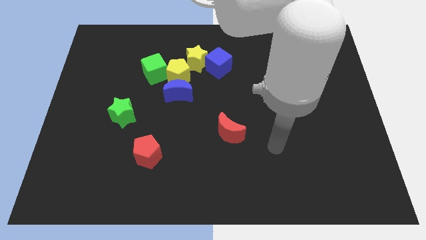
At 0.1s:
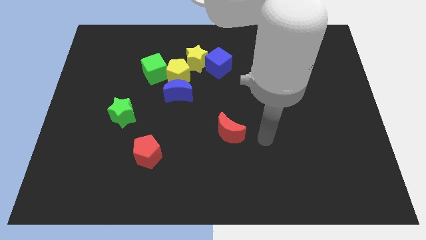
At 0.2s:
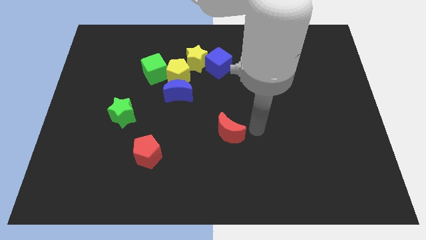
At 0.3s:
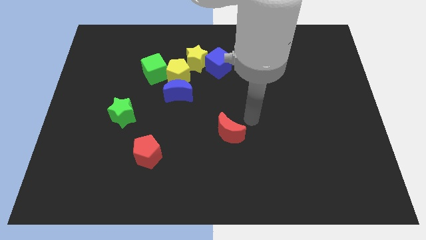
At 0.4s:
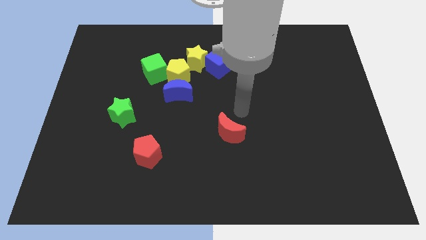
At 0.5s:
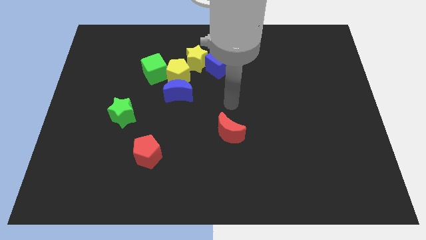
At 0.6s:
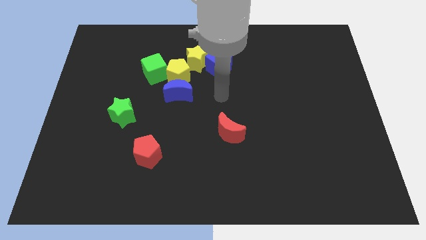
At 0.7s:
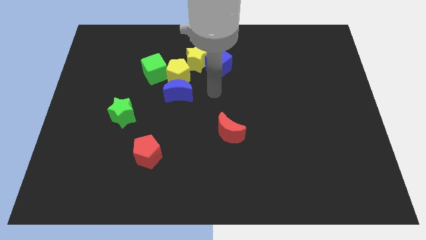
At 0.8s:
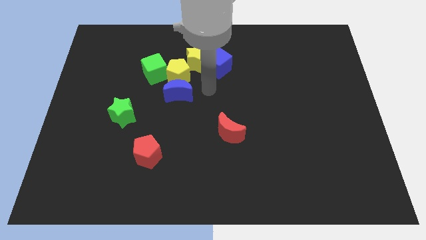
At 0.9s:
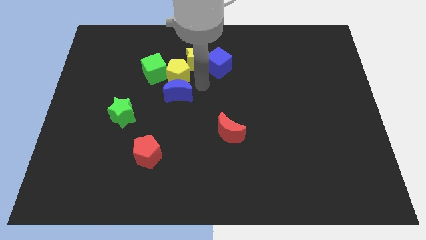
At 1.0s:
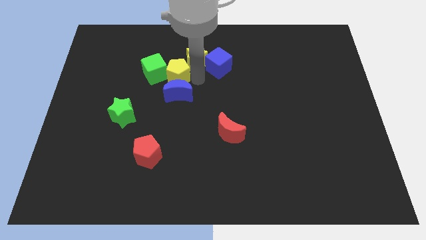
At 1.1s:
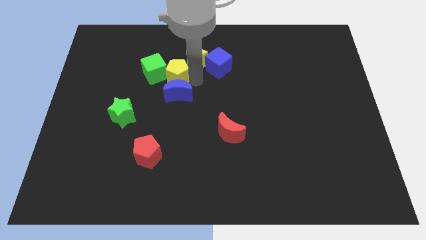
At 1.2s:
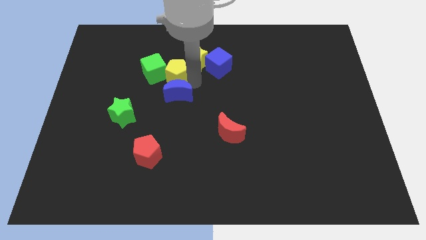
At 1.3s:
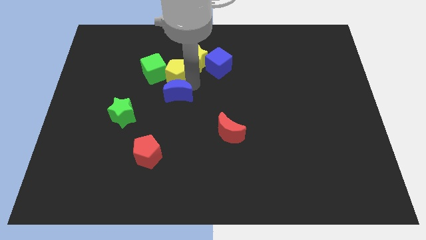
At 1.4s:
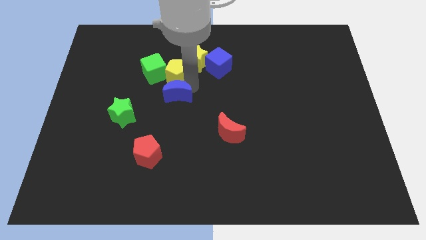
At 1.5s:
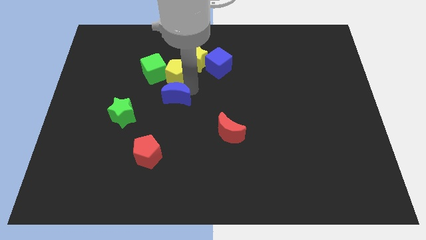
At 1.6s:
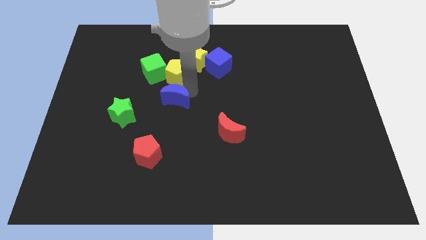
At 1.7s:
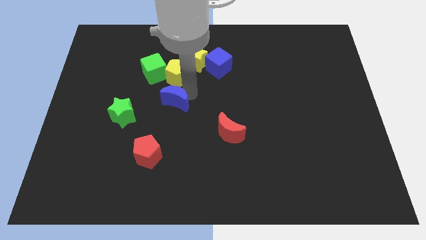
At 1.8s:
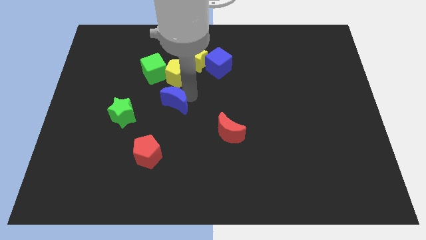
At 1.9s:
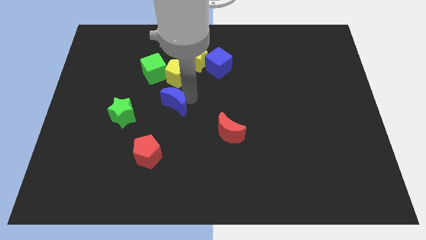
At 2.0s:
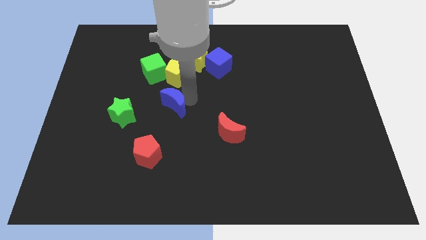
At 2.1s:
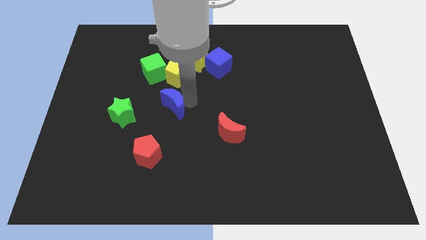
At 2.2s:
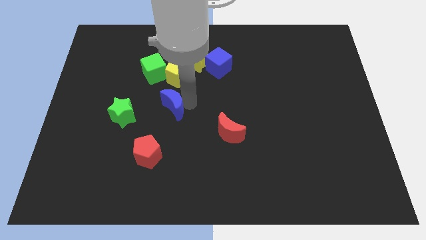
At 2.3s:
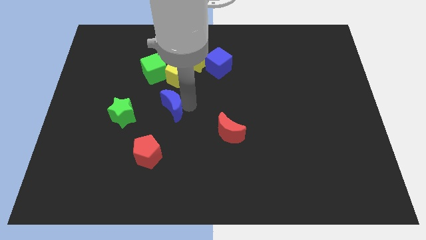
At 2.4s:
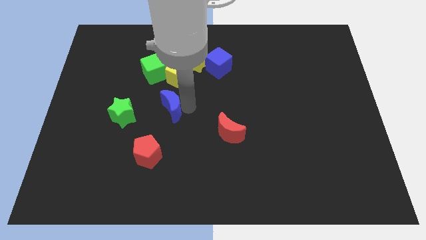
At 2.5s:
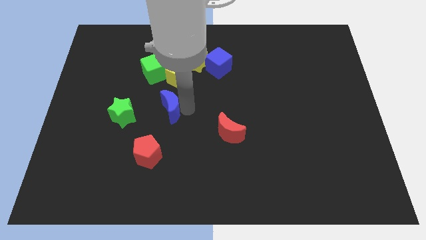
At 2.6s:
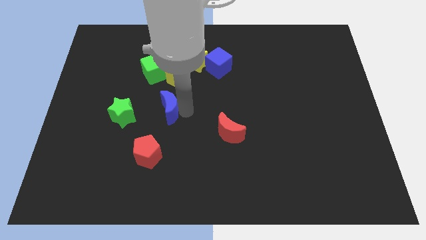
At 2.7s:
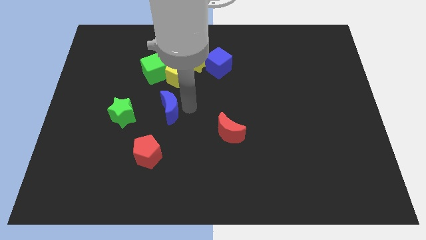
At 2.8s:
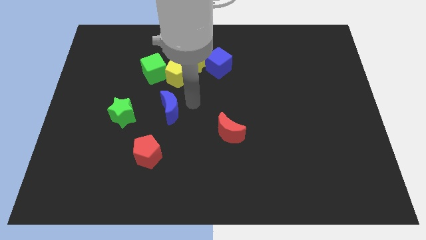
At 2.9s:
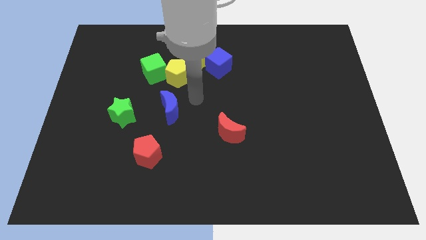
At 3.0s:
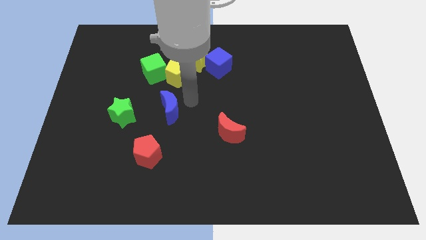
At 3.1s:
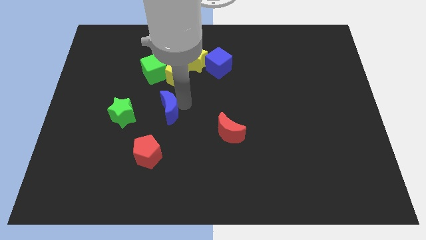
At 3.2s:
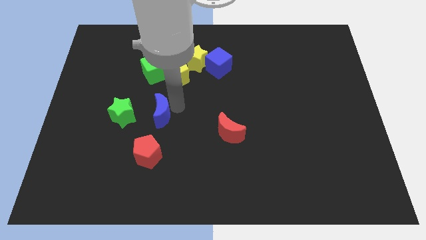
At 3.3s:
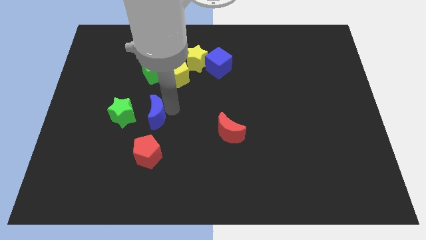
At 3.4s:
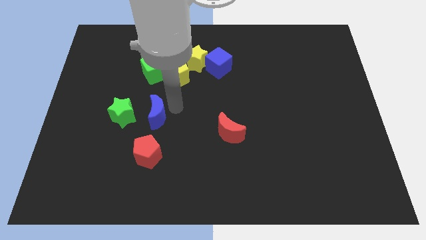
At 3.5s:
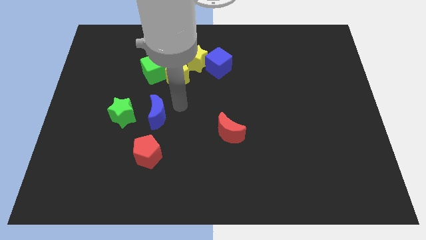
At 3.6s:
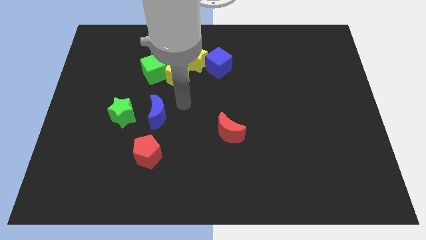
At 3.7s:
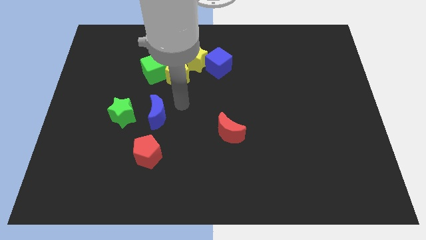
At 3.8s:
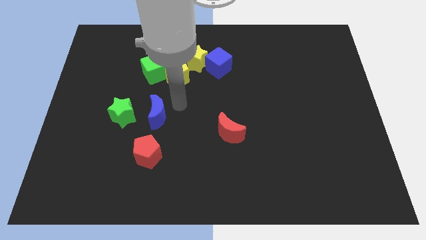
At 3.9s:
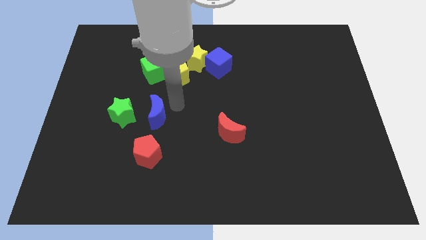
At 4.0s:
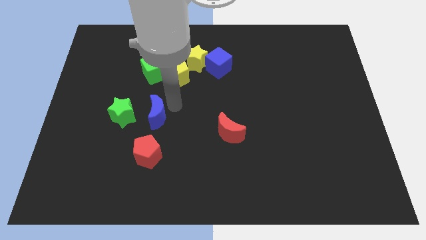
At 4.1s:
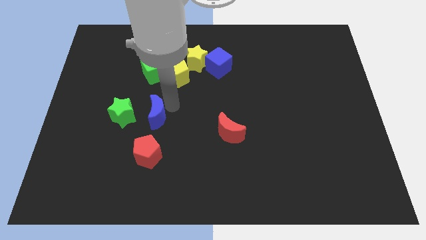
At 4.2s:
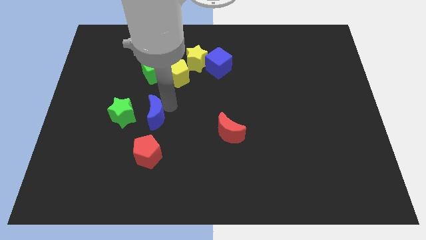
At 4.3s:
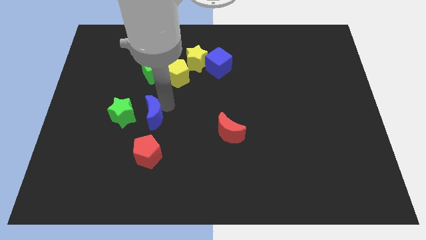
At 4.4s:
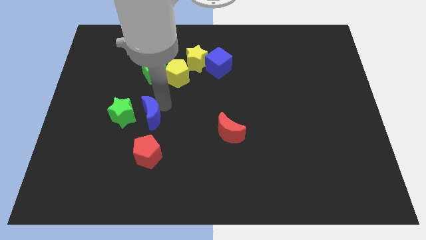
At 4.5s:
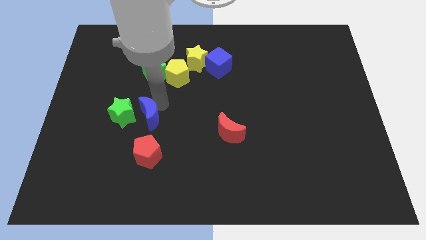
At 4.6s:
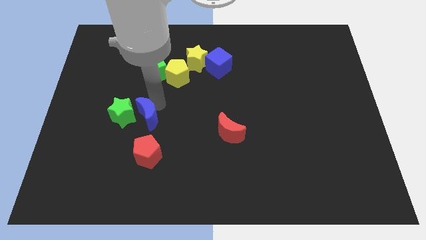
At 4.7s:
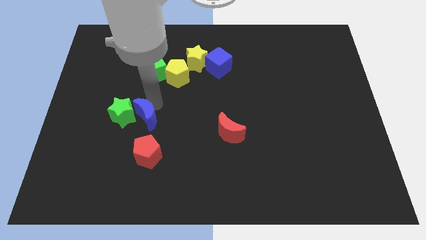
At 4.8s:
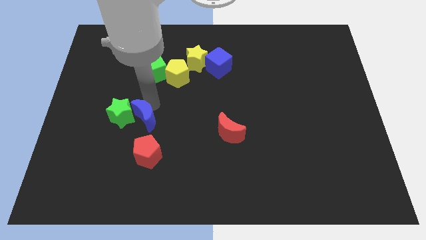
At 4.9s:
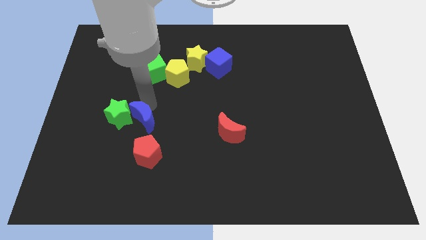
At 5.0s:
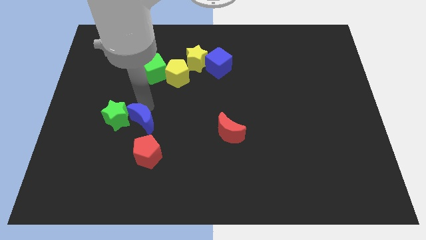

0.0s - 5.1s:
put the blue moon to the top left side of the red pentagon

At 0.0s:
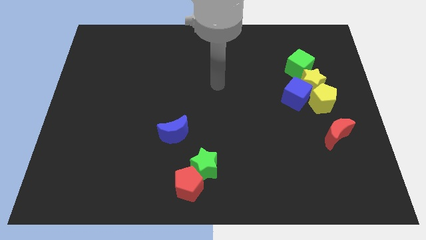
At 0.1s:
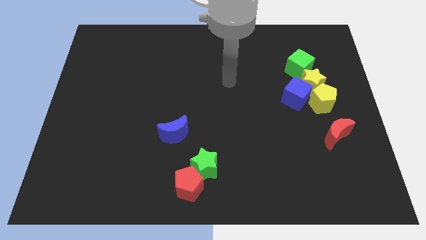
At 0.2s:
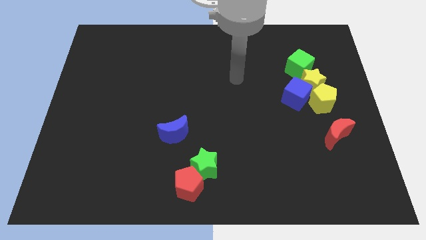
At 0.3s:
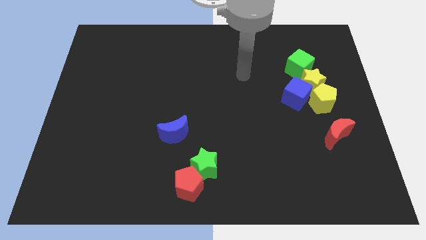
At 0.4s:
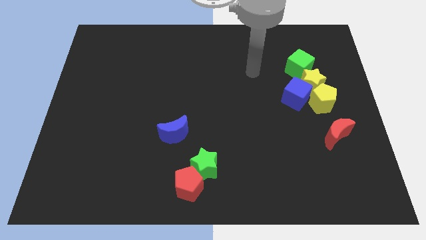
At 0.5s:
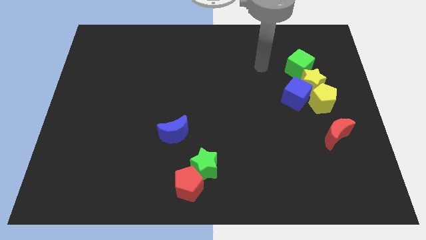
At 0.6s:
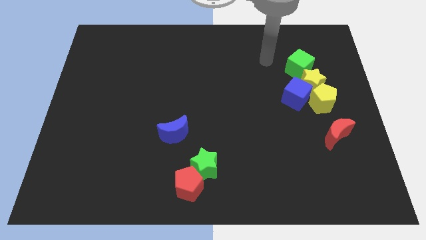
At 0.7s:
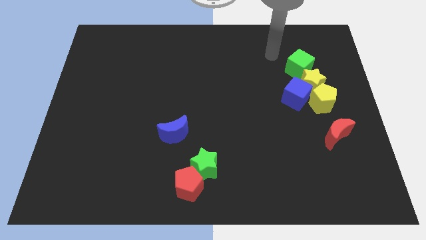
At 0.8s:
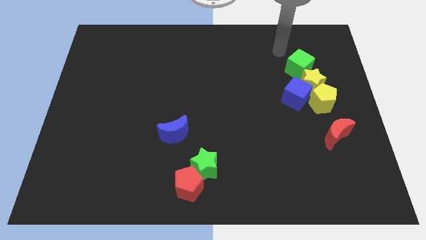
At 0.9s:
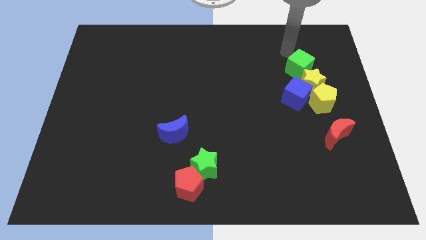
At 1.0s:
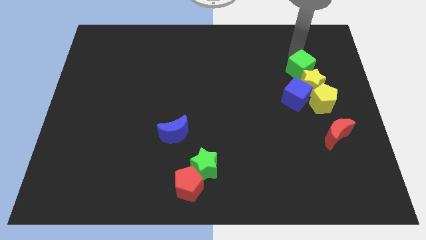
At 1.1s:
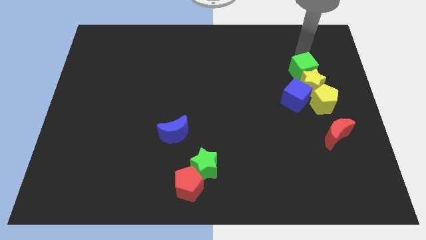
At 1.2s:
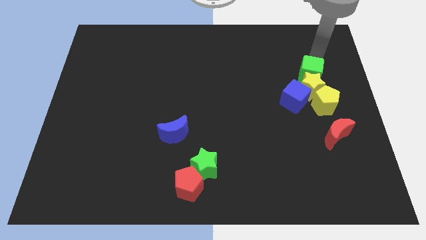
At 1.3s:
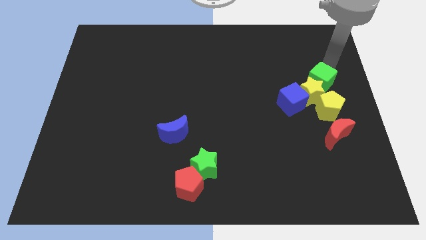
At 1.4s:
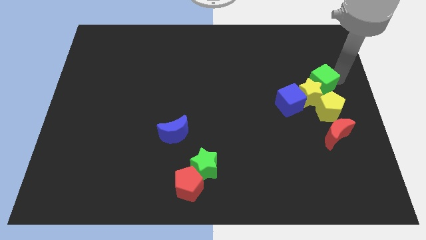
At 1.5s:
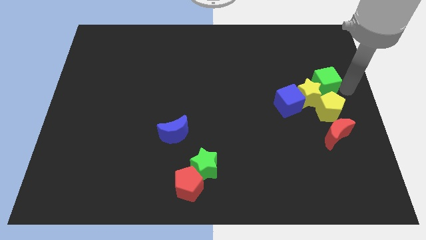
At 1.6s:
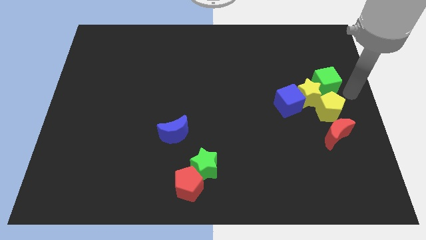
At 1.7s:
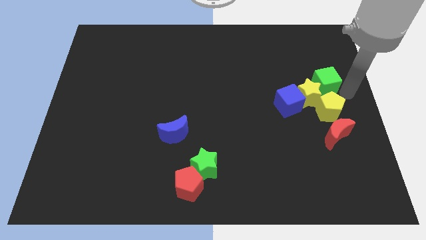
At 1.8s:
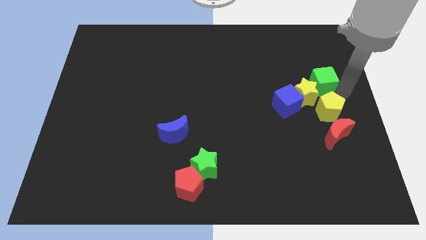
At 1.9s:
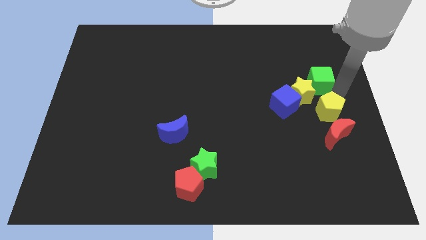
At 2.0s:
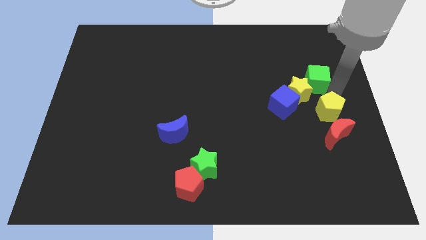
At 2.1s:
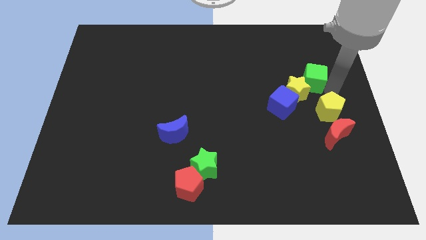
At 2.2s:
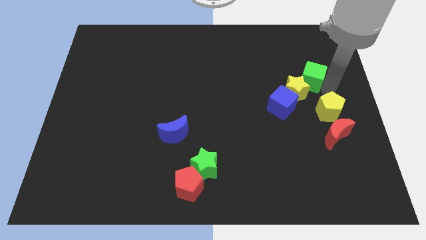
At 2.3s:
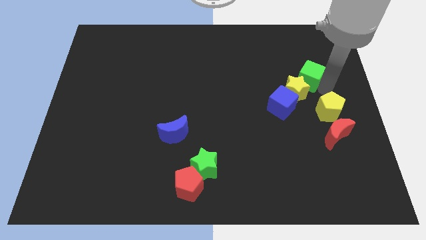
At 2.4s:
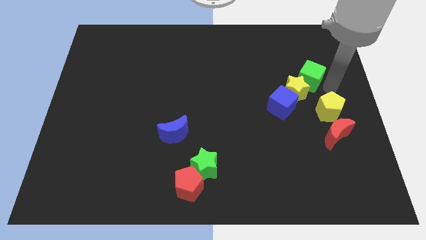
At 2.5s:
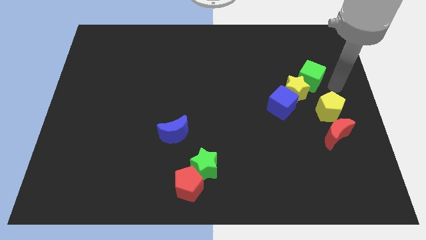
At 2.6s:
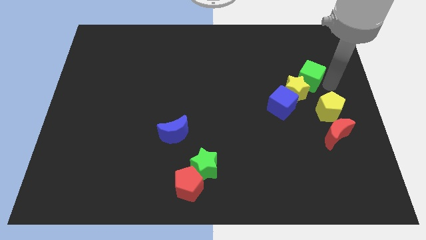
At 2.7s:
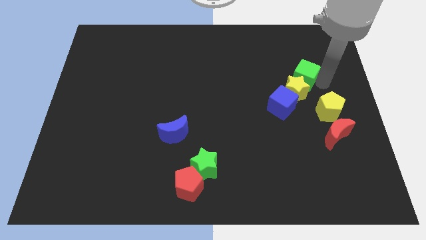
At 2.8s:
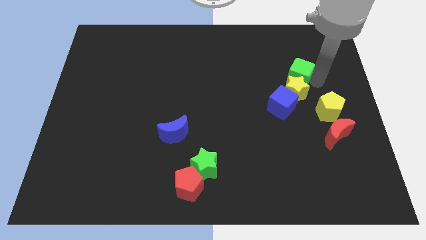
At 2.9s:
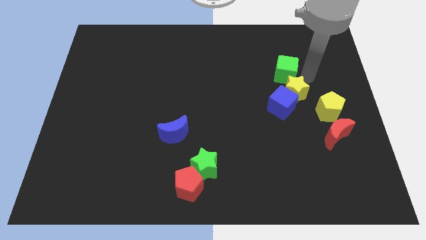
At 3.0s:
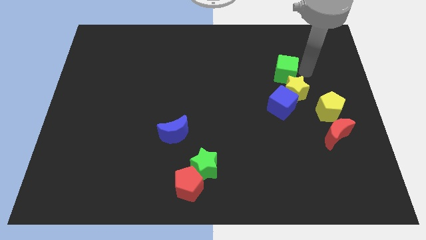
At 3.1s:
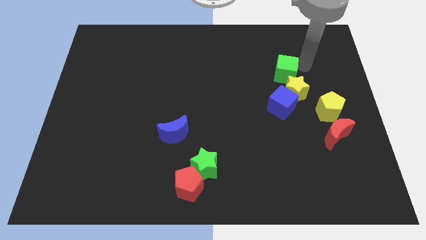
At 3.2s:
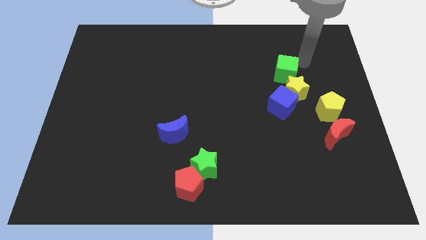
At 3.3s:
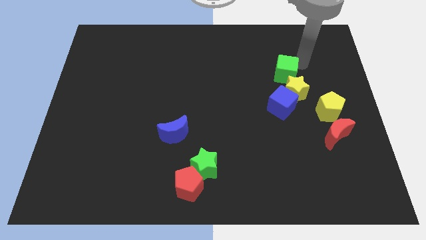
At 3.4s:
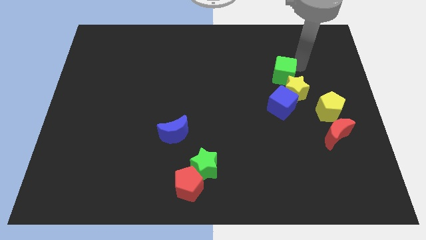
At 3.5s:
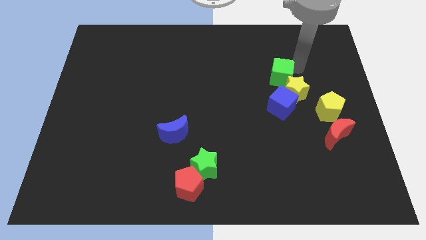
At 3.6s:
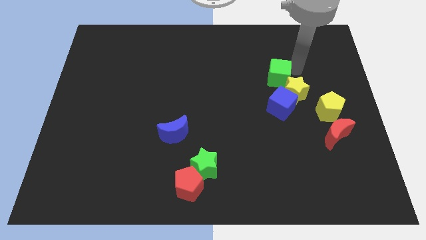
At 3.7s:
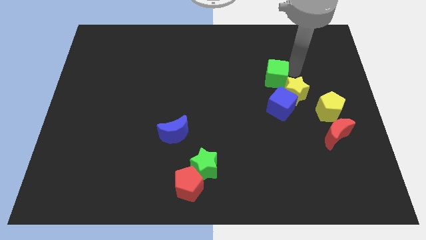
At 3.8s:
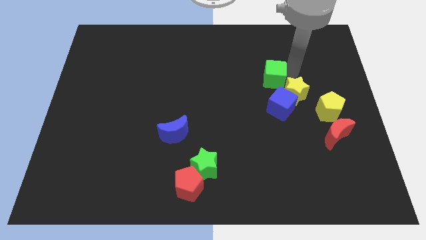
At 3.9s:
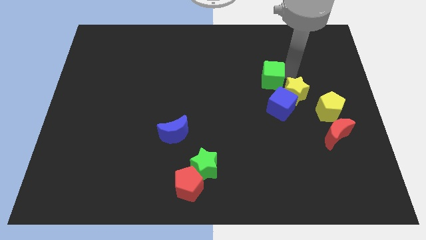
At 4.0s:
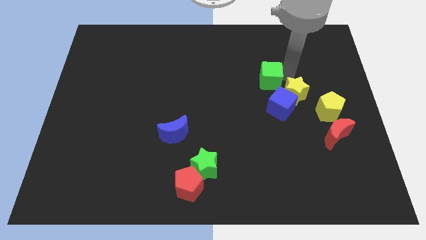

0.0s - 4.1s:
slide the green cube to the top left of the blue cube
